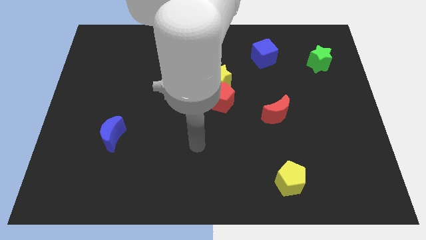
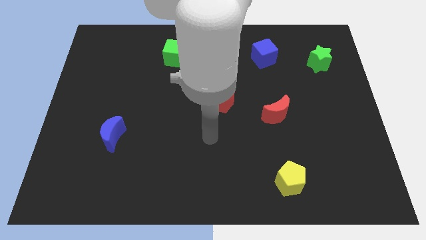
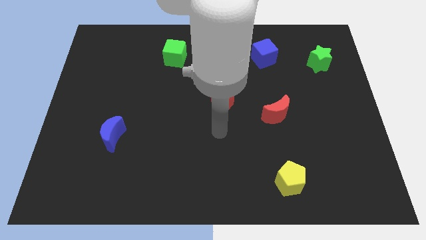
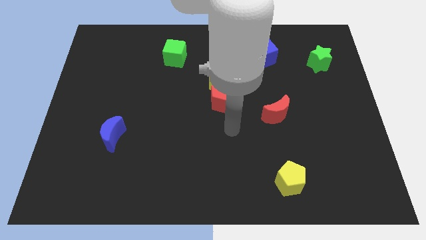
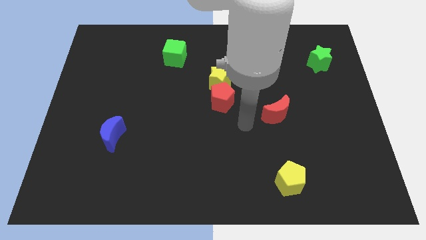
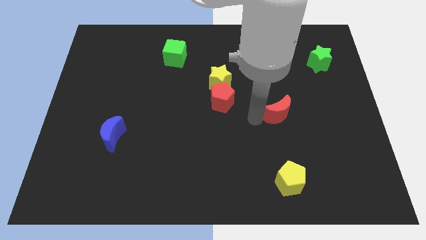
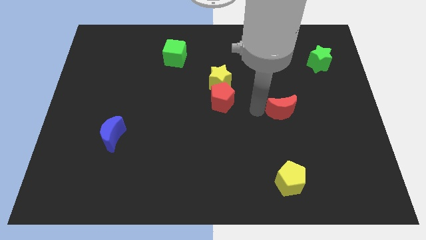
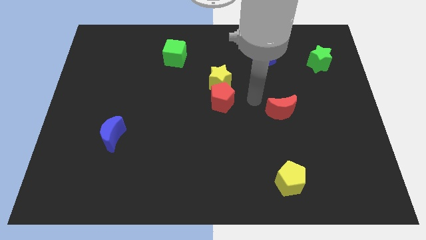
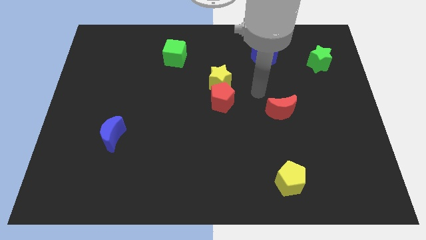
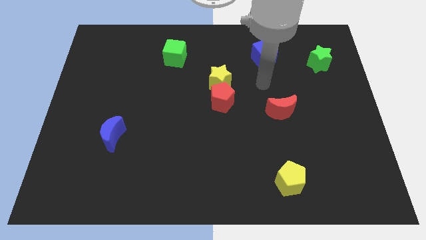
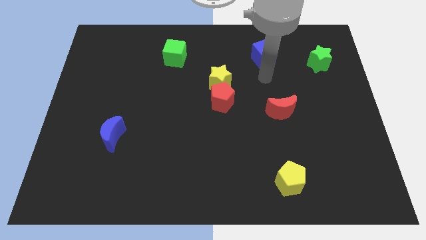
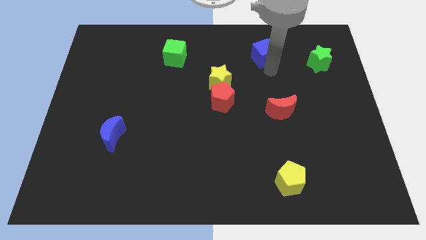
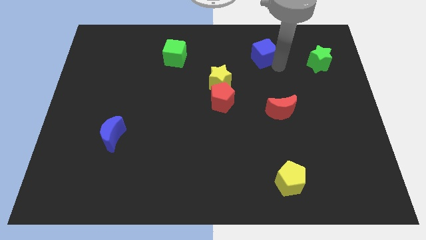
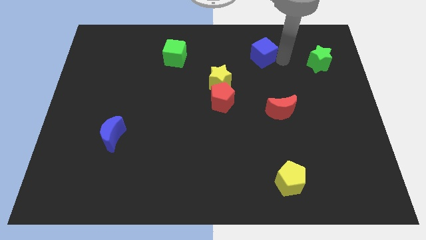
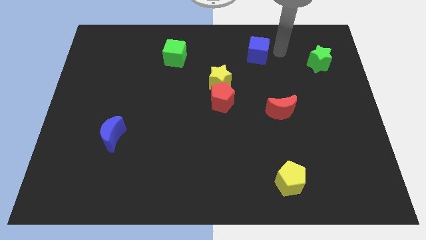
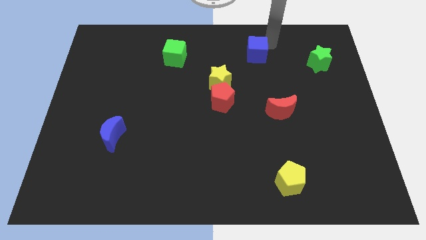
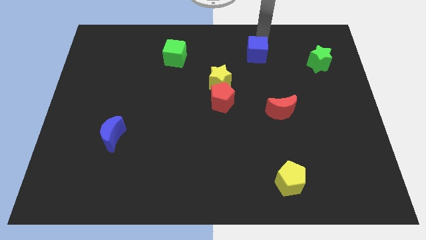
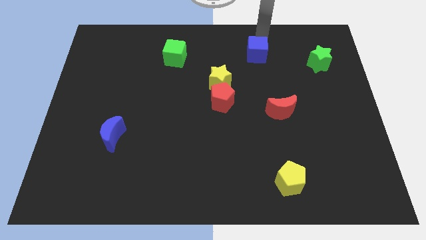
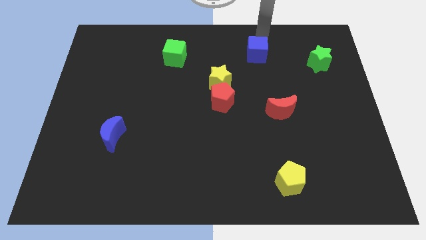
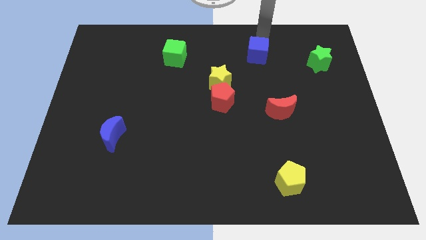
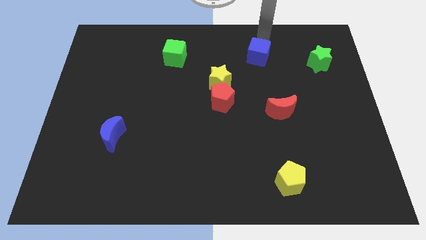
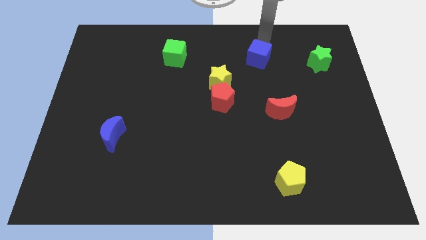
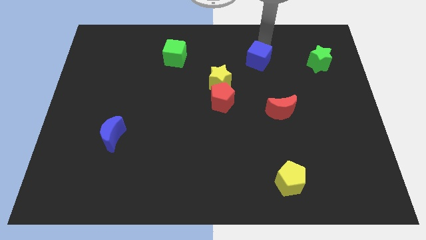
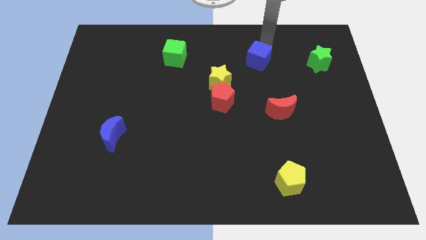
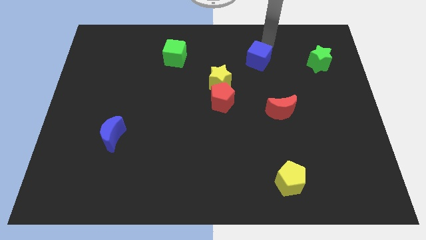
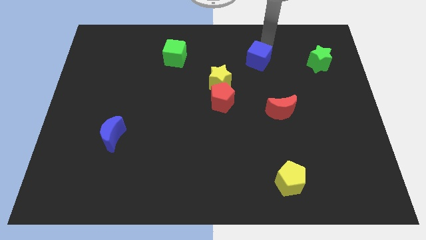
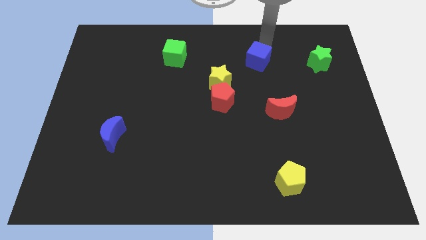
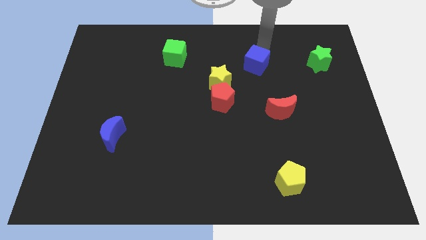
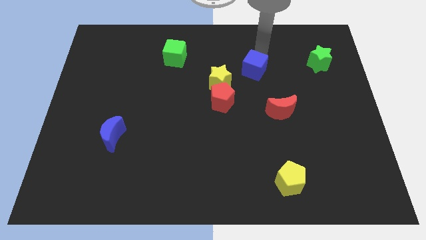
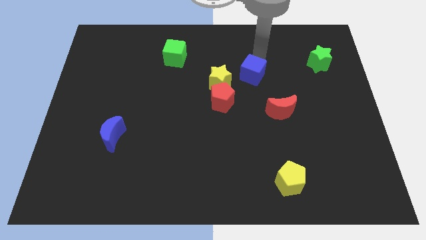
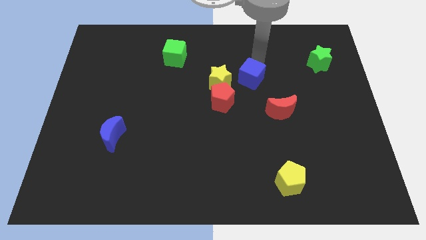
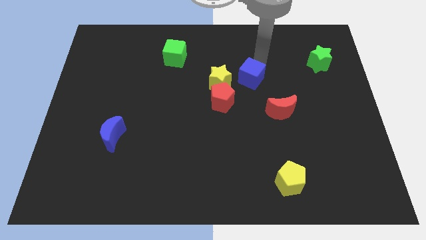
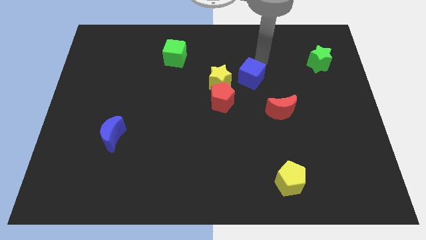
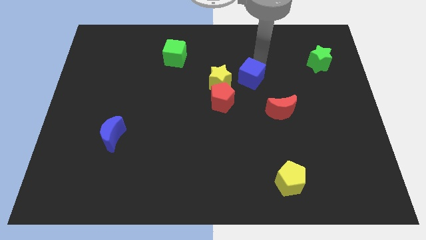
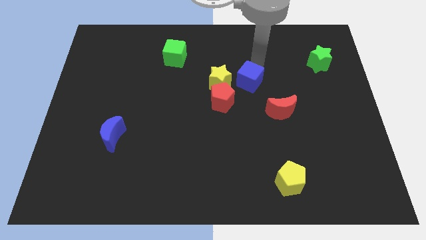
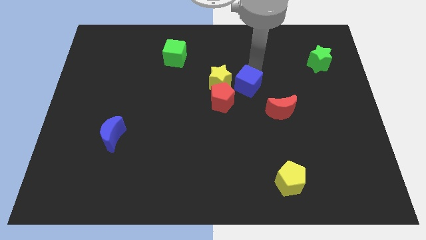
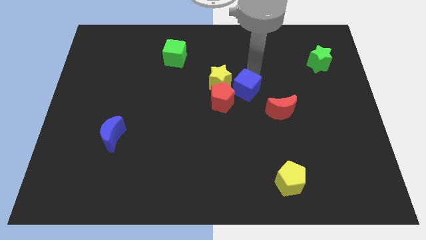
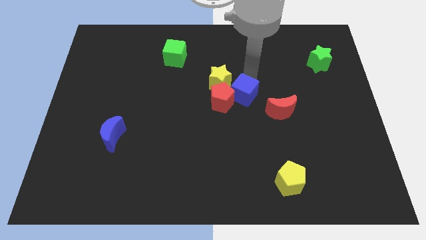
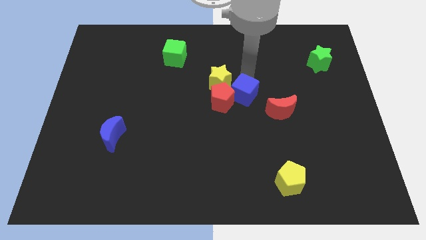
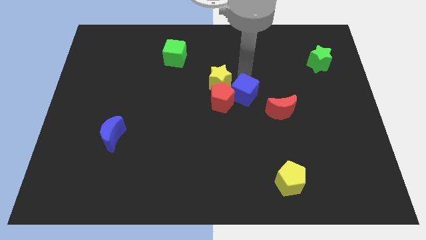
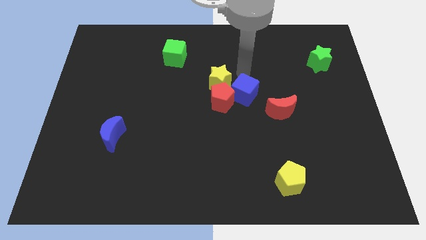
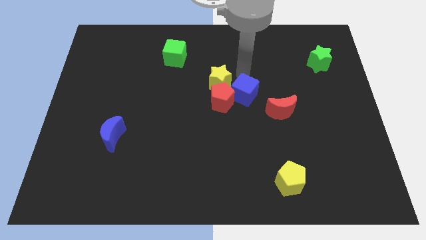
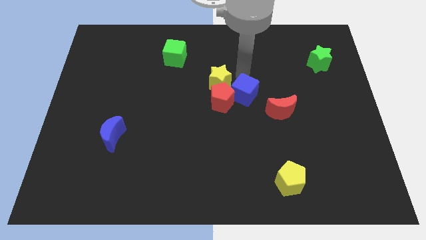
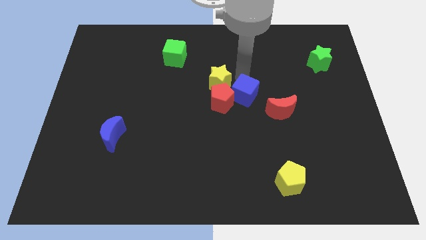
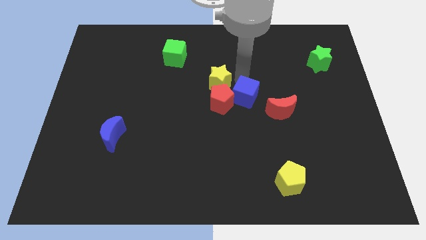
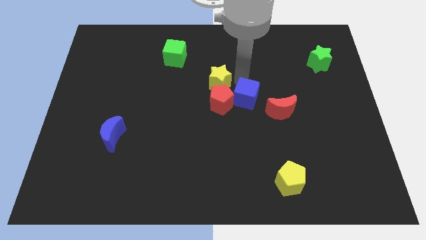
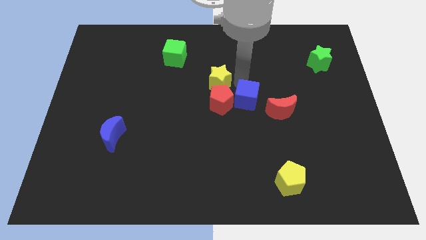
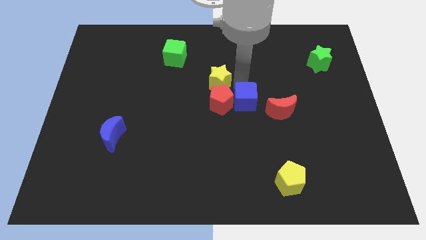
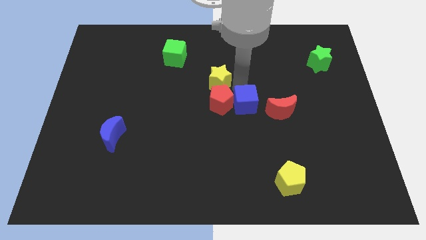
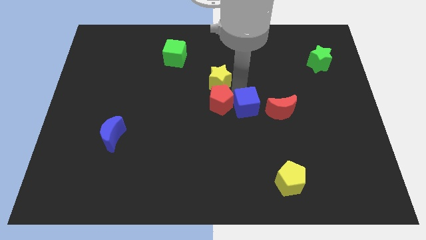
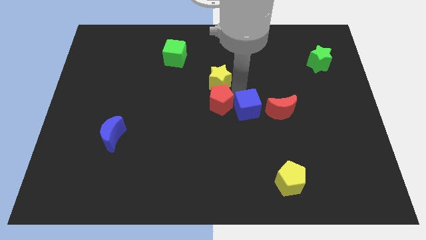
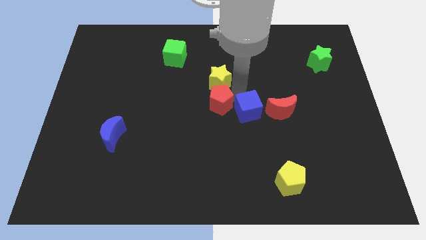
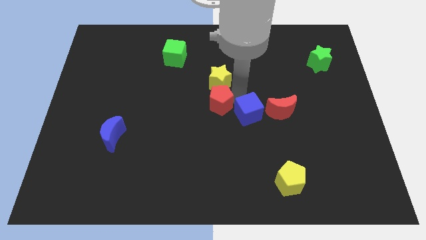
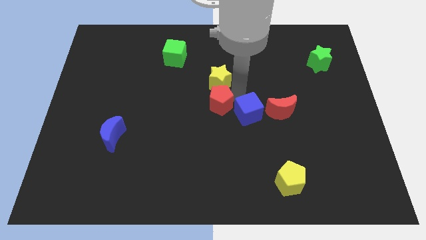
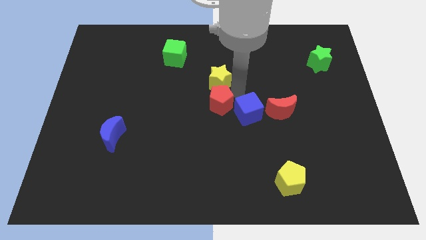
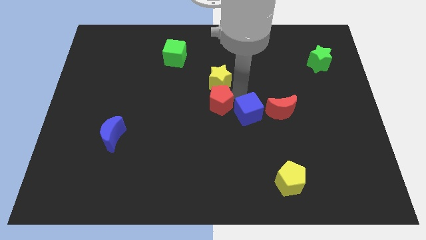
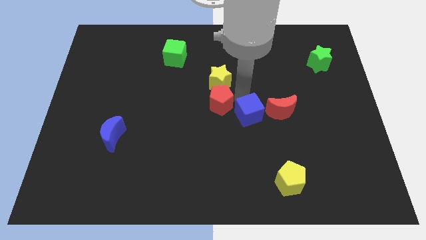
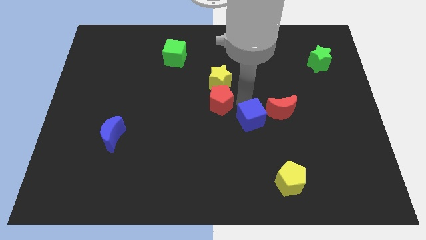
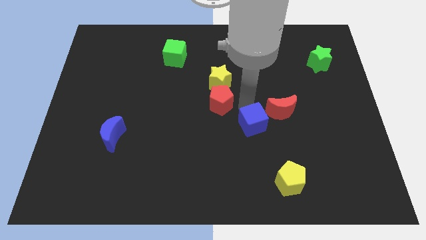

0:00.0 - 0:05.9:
move the blue cube down

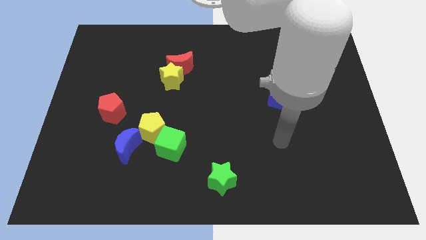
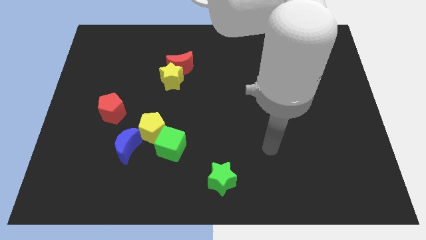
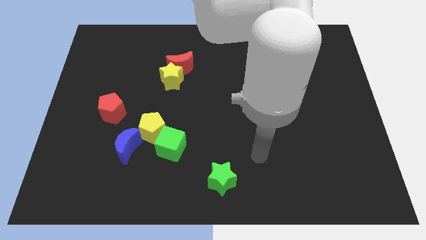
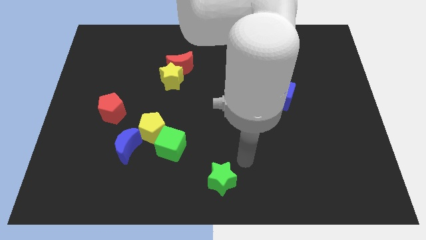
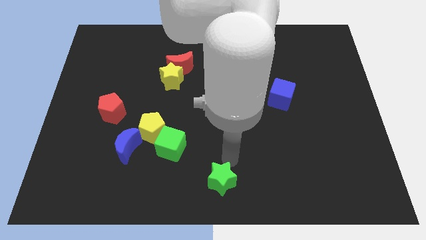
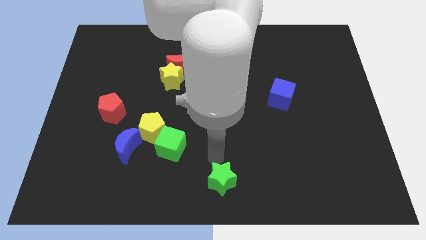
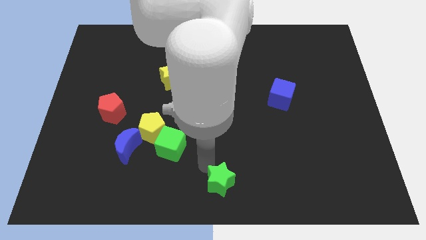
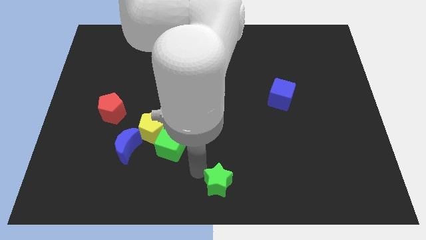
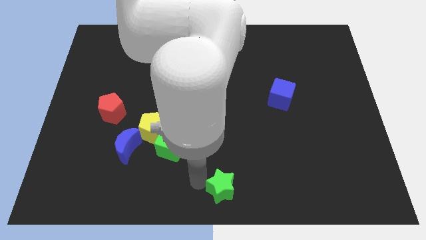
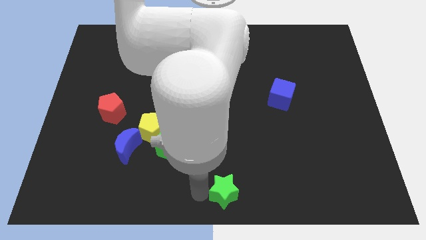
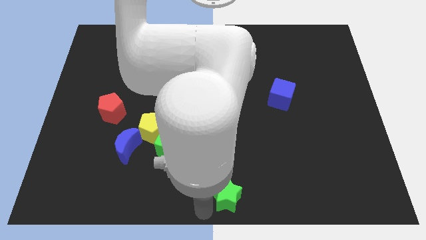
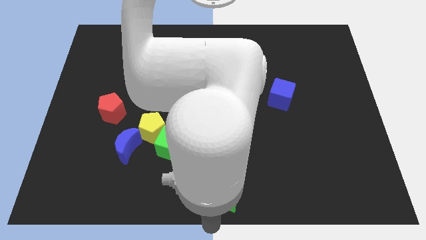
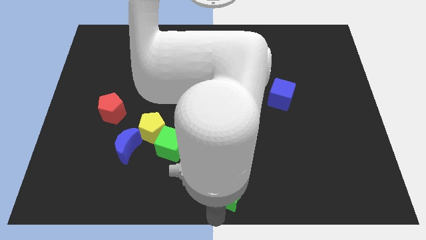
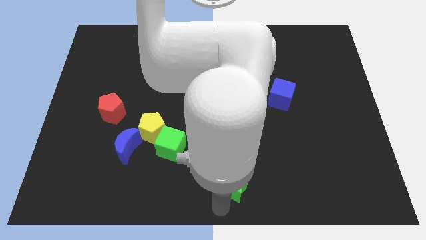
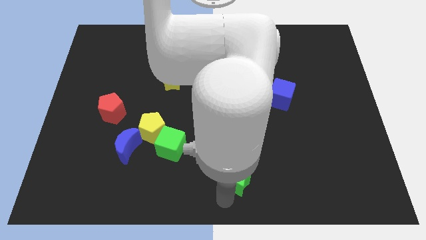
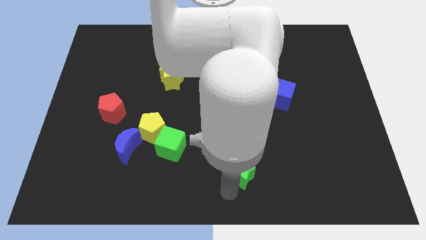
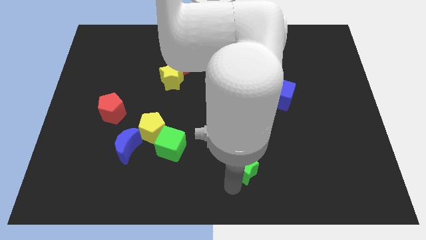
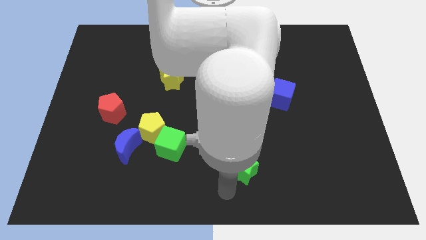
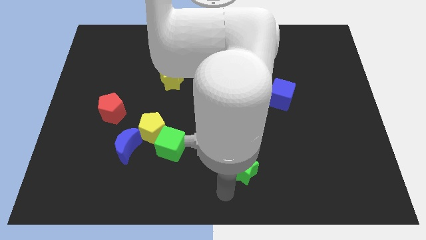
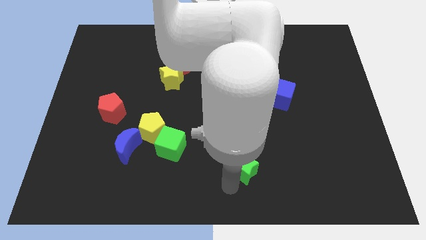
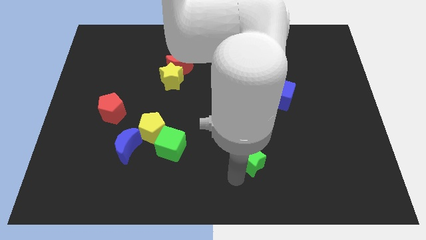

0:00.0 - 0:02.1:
slightly push the green star up and to the right diagonally

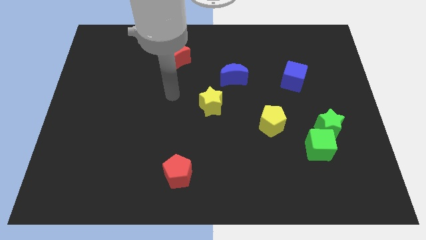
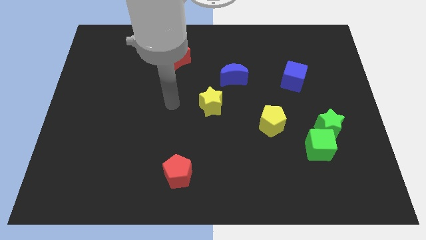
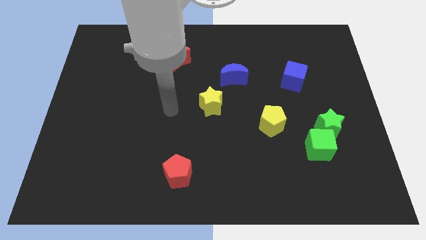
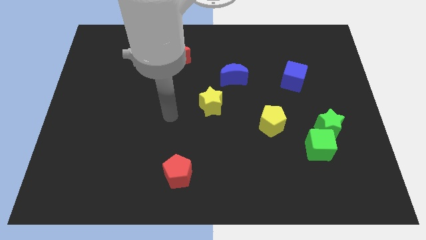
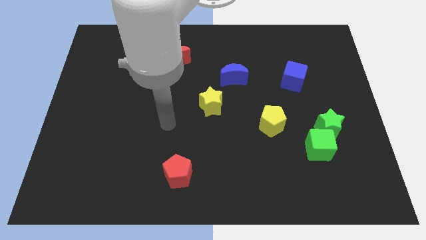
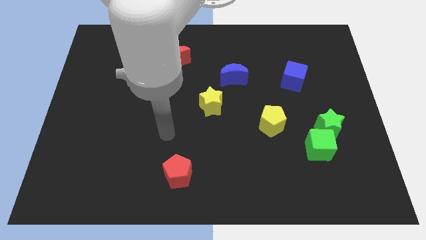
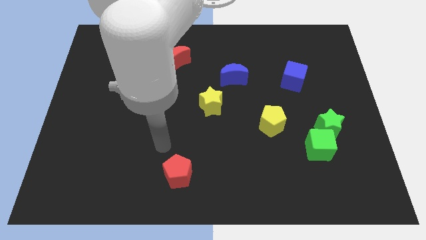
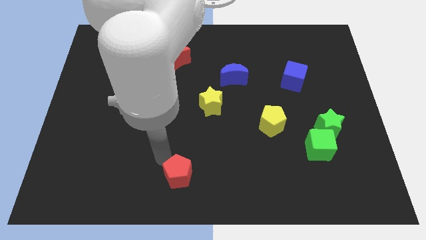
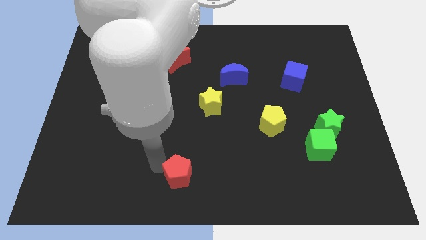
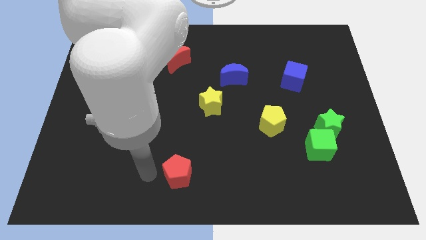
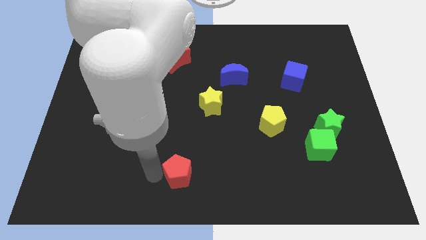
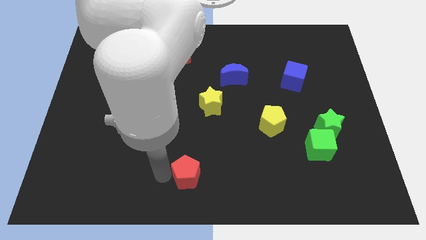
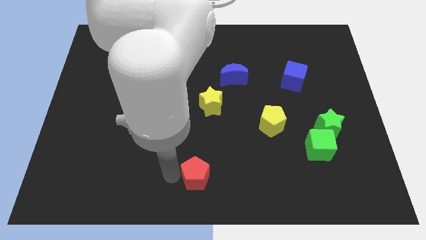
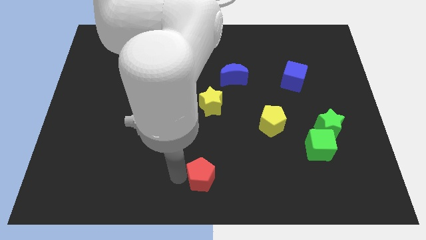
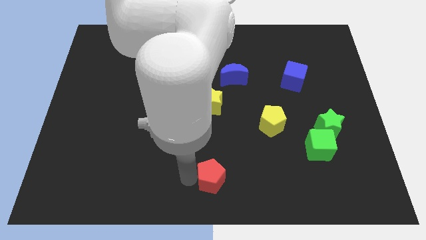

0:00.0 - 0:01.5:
move the red pentagon a bit to the right
